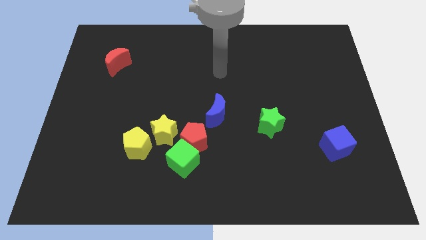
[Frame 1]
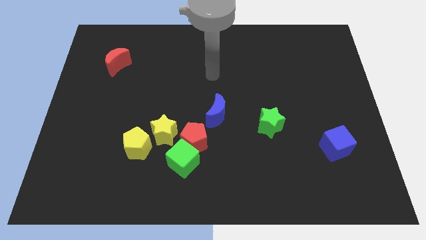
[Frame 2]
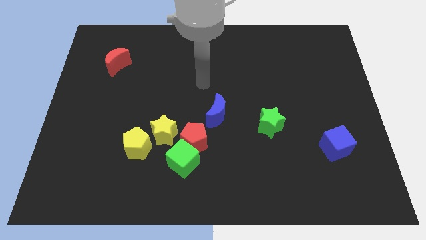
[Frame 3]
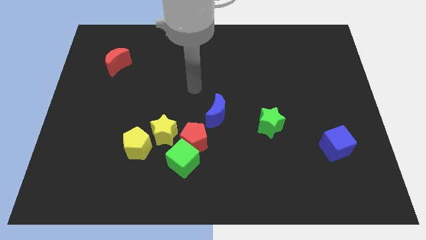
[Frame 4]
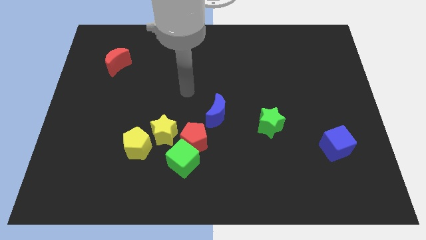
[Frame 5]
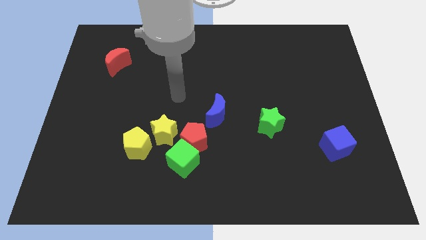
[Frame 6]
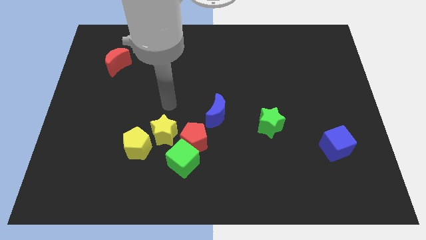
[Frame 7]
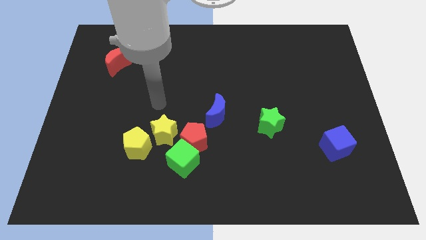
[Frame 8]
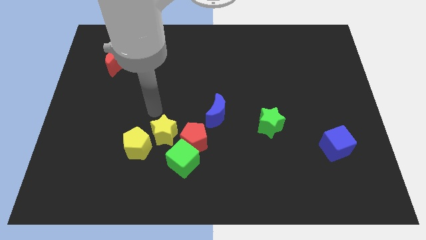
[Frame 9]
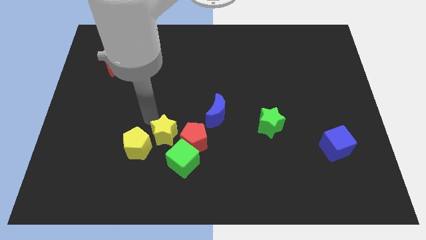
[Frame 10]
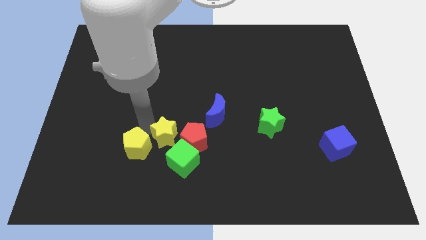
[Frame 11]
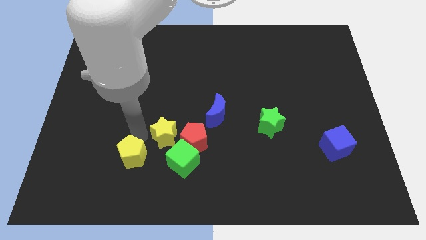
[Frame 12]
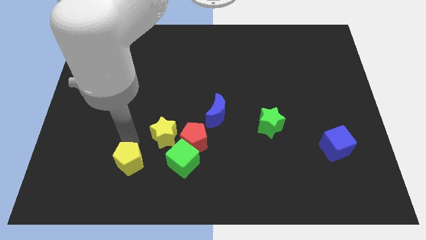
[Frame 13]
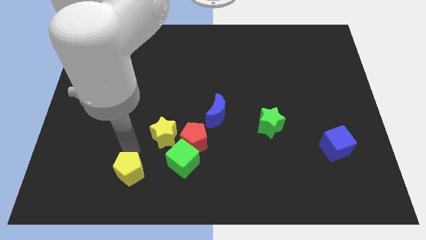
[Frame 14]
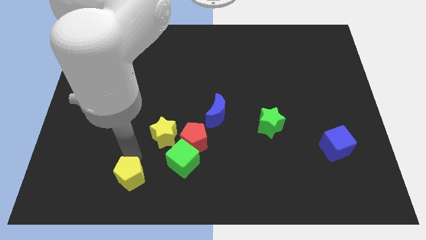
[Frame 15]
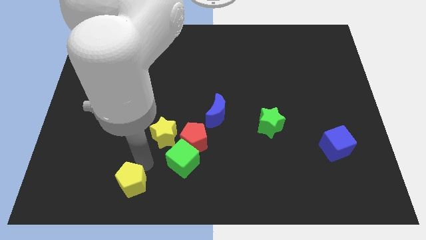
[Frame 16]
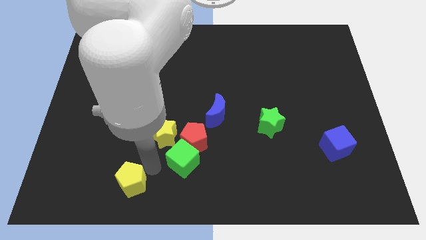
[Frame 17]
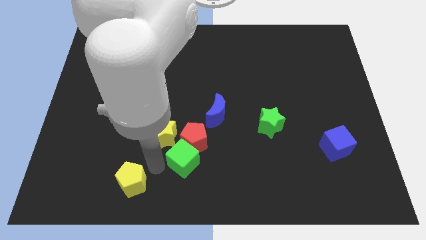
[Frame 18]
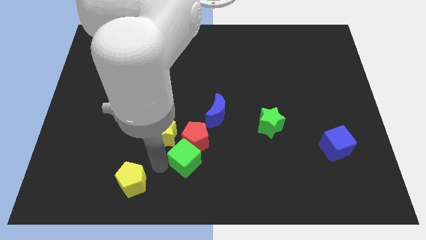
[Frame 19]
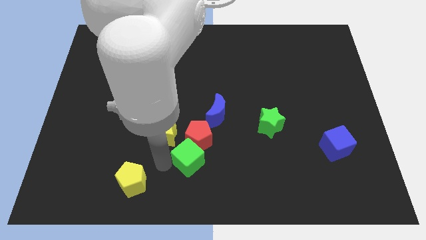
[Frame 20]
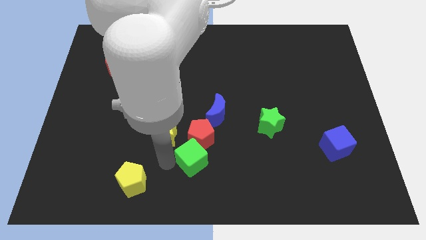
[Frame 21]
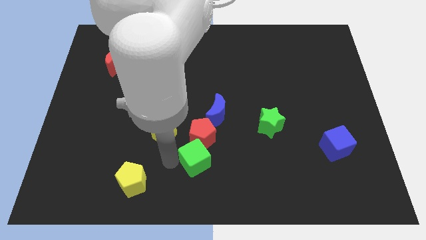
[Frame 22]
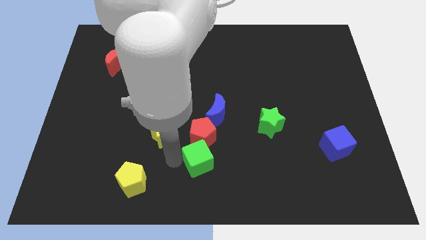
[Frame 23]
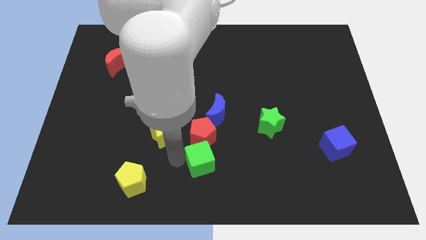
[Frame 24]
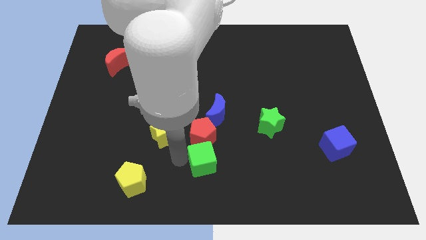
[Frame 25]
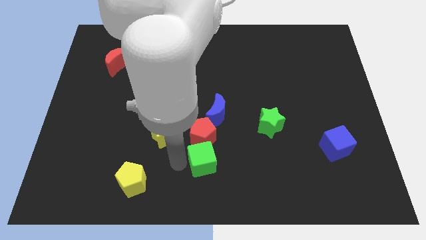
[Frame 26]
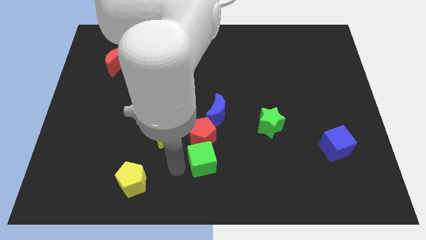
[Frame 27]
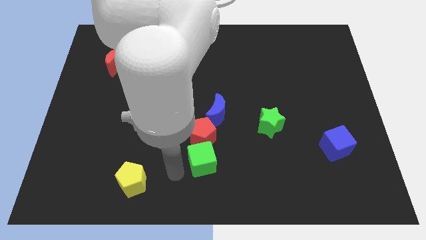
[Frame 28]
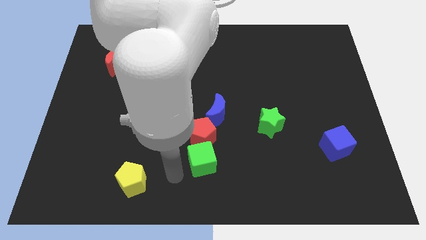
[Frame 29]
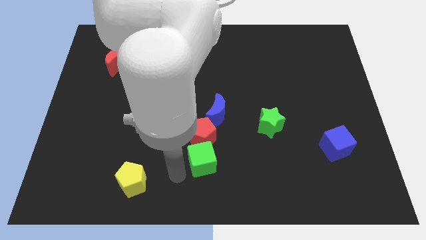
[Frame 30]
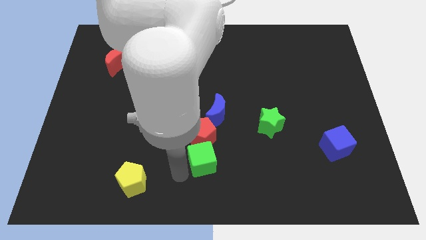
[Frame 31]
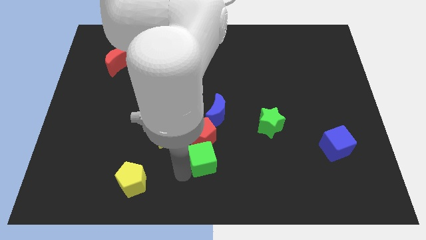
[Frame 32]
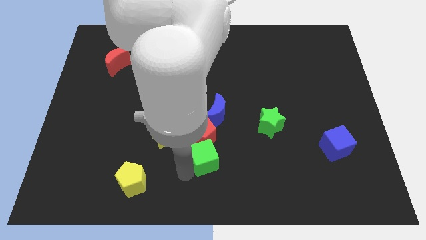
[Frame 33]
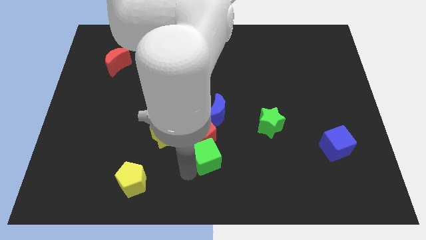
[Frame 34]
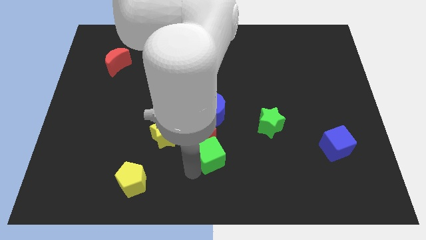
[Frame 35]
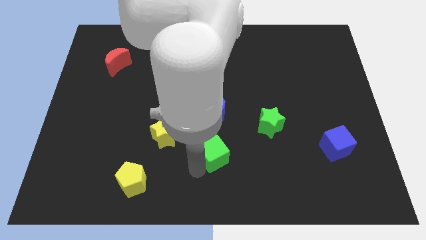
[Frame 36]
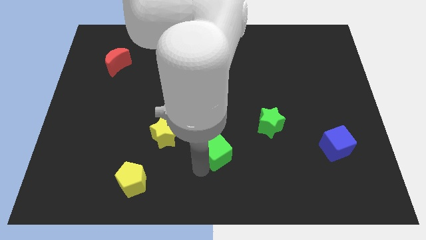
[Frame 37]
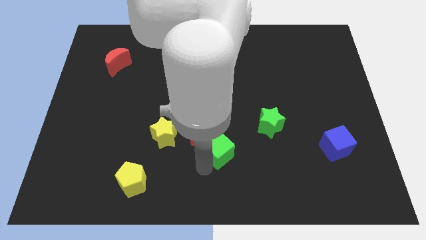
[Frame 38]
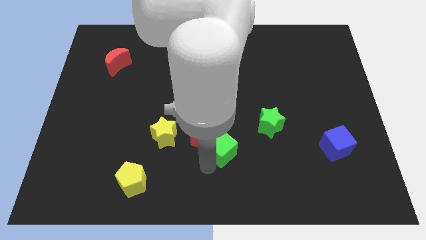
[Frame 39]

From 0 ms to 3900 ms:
push the green cube upwards and to the right diagonally a little bit

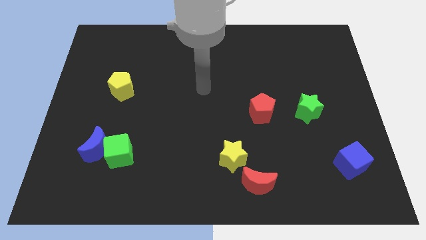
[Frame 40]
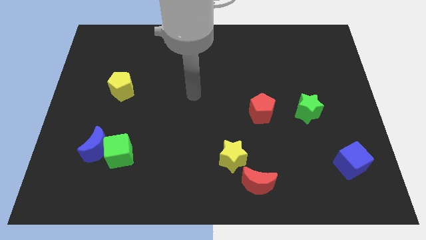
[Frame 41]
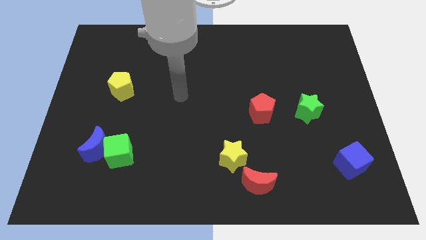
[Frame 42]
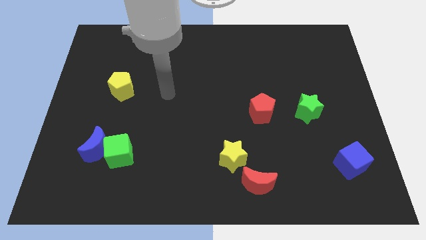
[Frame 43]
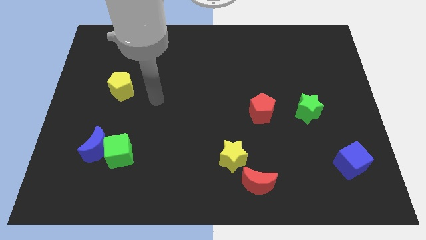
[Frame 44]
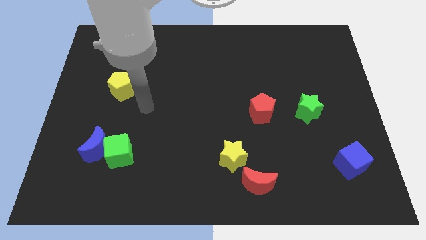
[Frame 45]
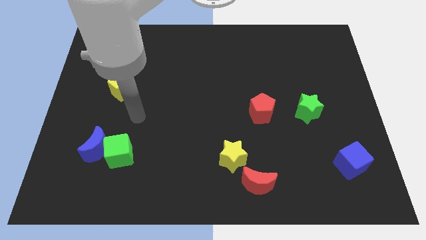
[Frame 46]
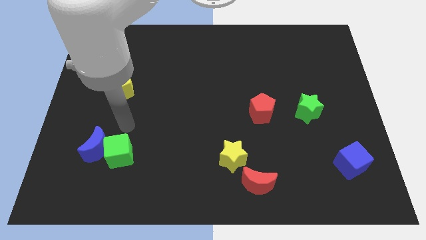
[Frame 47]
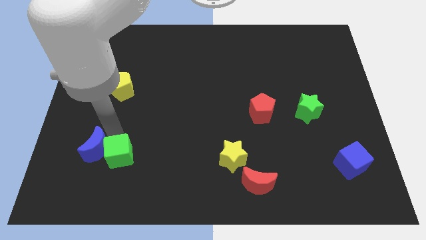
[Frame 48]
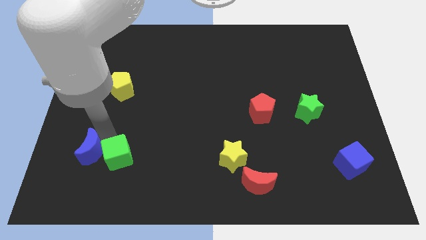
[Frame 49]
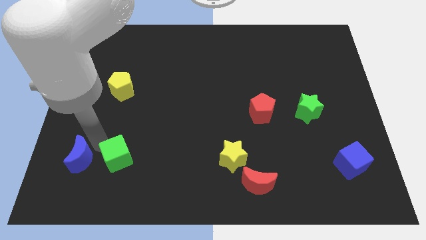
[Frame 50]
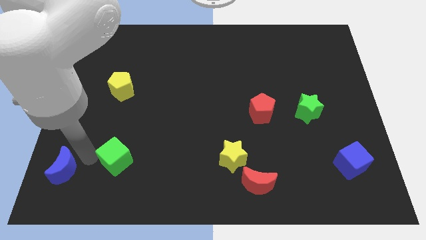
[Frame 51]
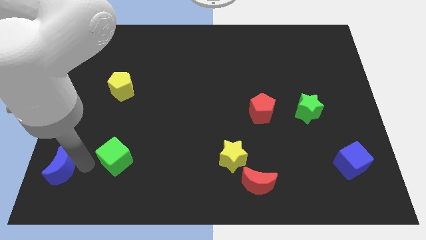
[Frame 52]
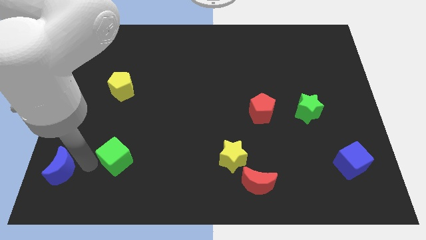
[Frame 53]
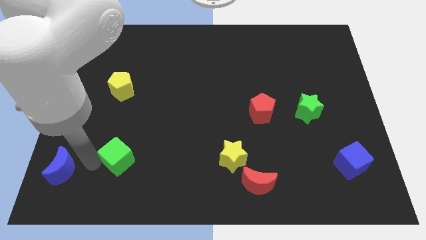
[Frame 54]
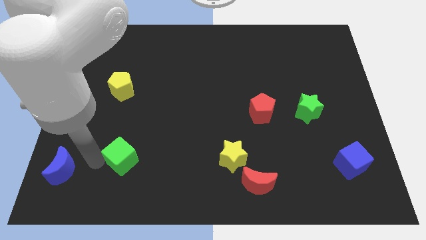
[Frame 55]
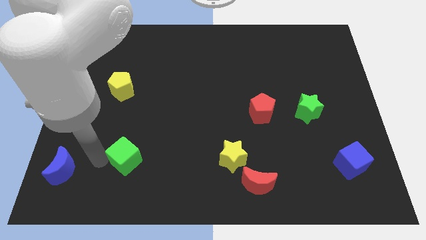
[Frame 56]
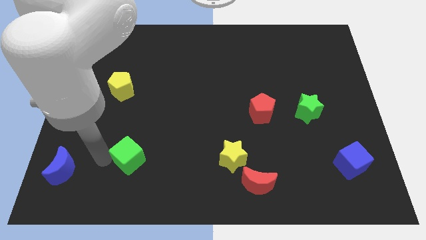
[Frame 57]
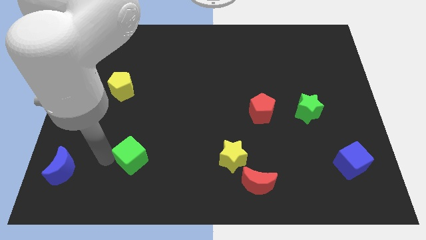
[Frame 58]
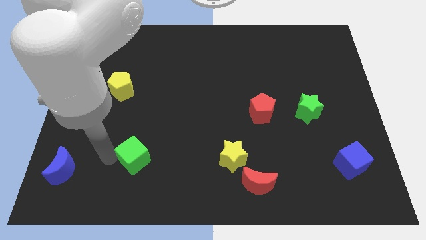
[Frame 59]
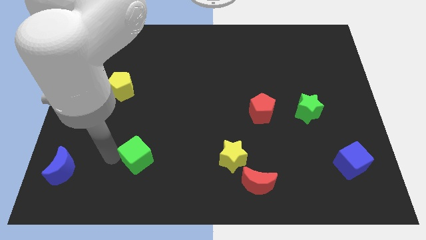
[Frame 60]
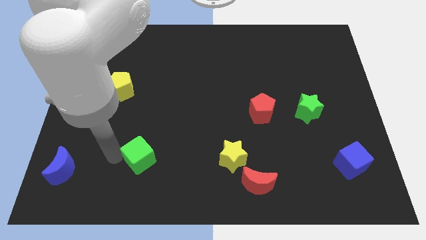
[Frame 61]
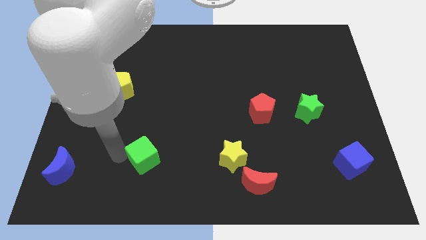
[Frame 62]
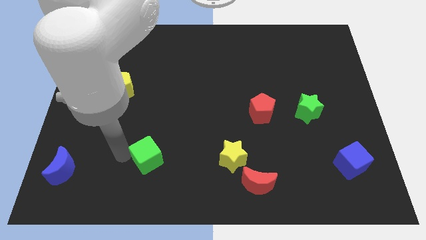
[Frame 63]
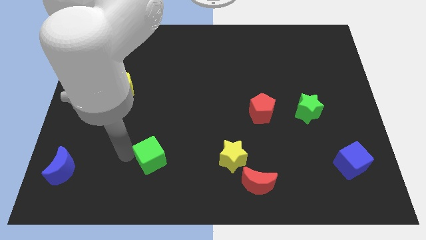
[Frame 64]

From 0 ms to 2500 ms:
push the green cube a bit right

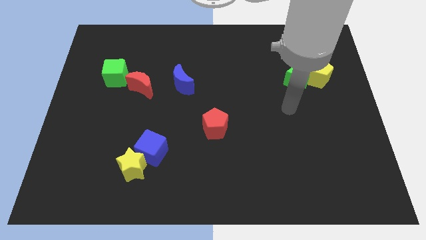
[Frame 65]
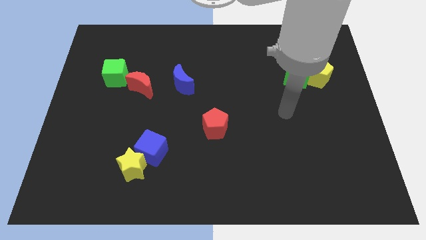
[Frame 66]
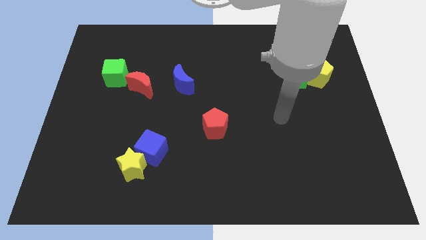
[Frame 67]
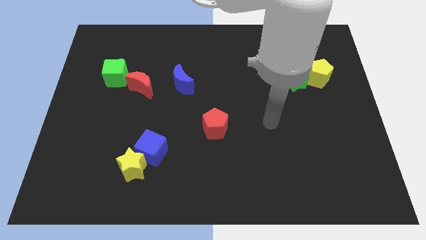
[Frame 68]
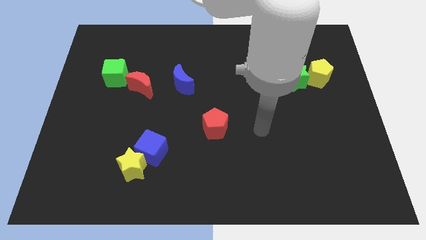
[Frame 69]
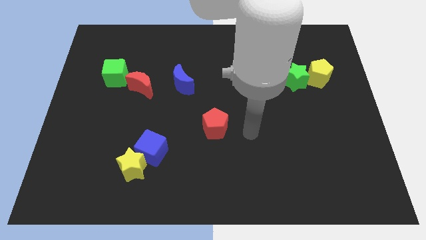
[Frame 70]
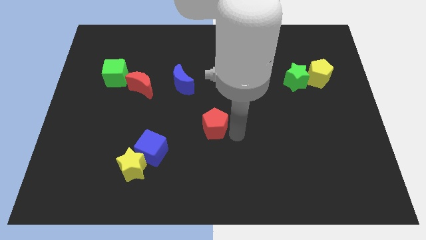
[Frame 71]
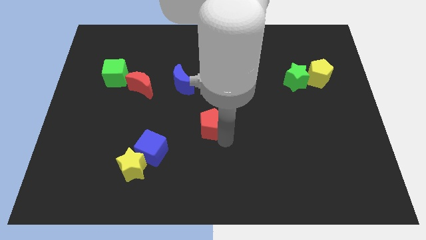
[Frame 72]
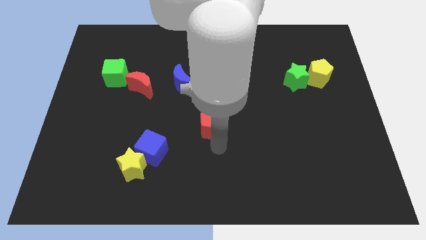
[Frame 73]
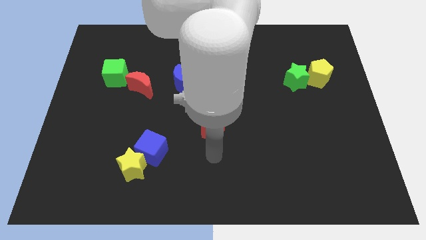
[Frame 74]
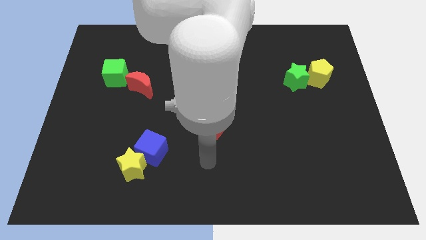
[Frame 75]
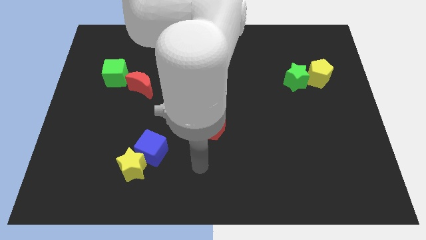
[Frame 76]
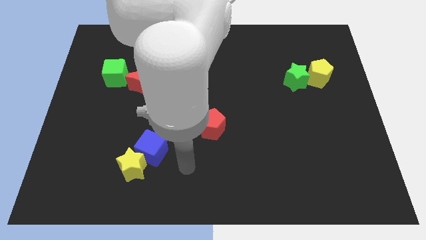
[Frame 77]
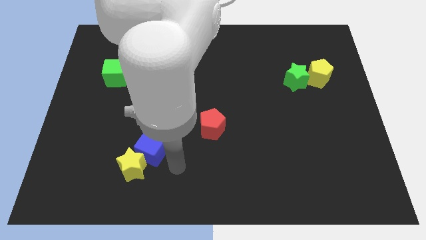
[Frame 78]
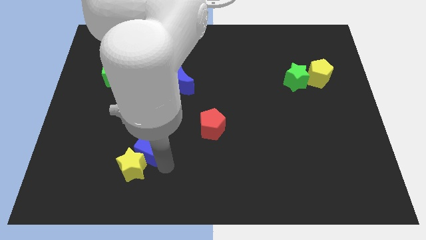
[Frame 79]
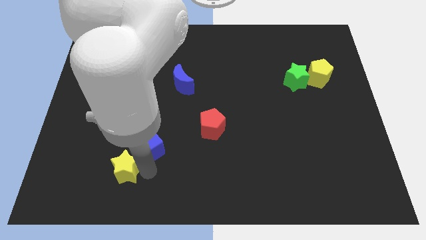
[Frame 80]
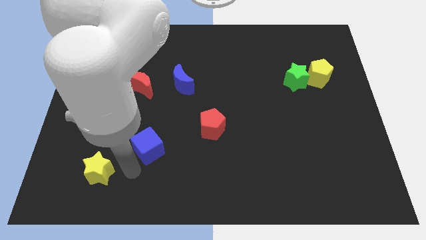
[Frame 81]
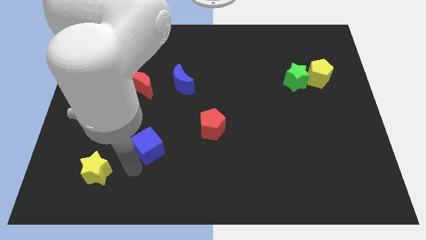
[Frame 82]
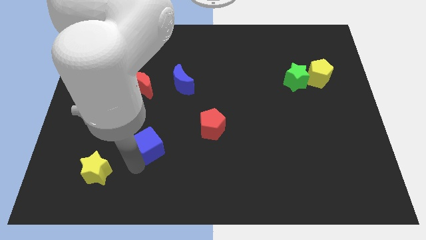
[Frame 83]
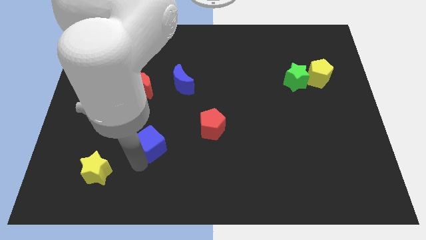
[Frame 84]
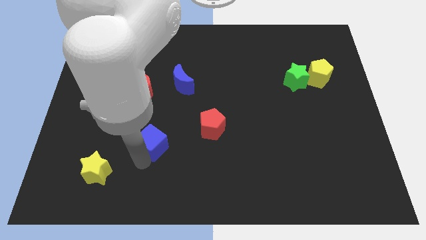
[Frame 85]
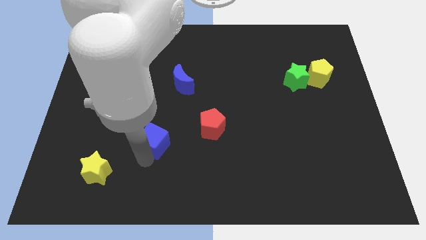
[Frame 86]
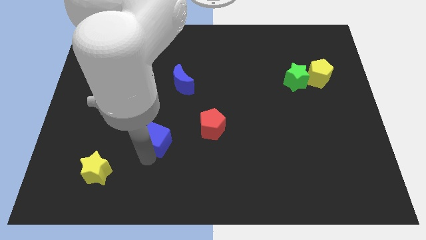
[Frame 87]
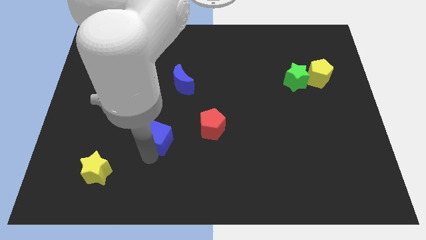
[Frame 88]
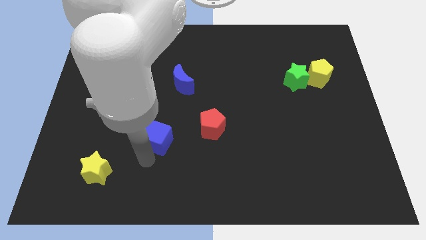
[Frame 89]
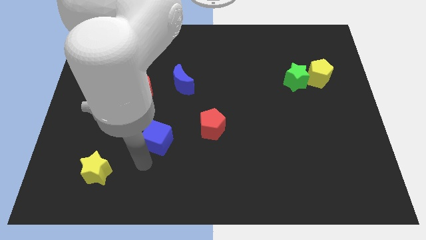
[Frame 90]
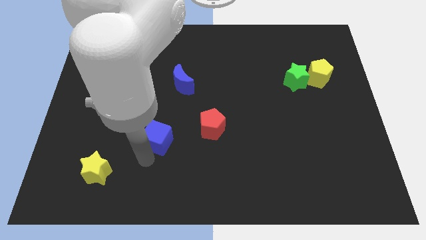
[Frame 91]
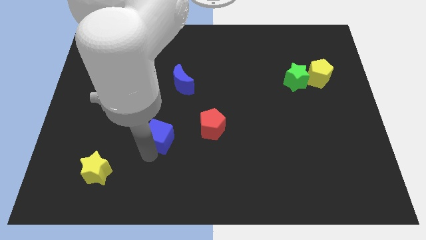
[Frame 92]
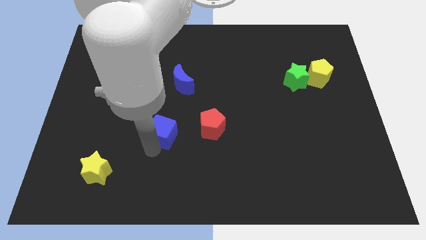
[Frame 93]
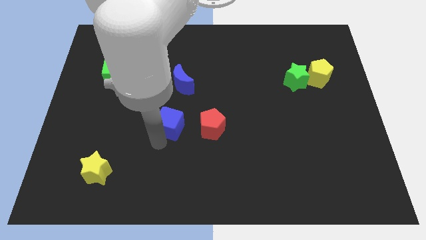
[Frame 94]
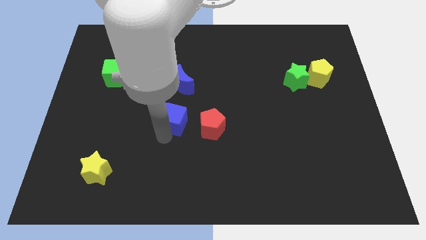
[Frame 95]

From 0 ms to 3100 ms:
slightly move the blue cube upwards
